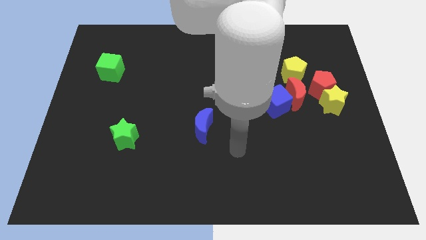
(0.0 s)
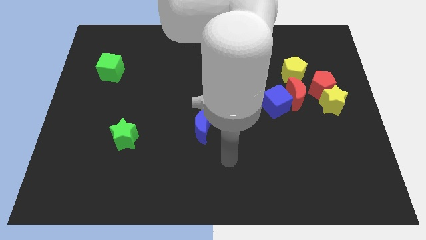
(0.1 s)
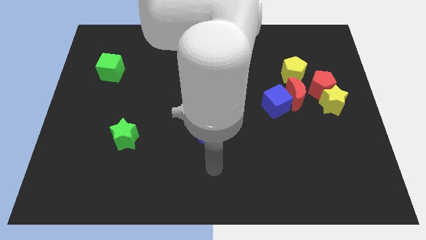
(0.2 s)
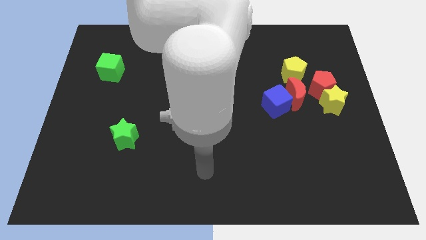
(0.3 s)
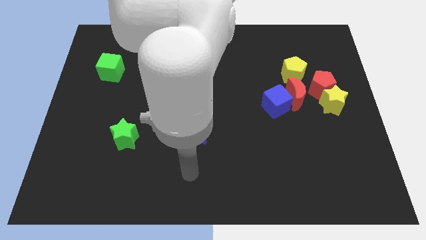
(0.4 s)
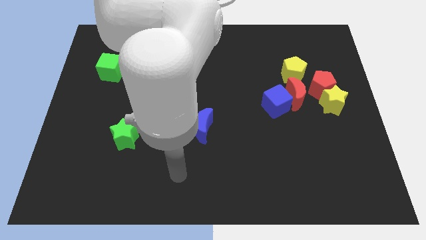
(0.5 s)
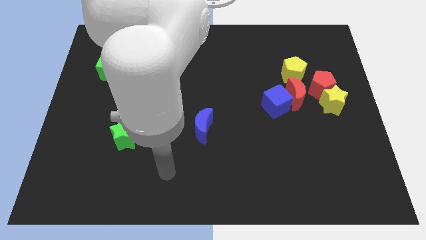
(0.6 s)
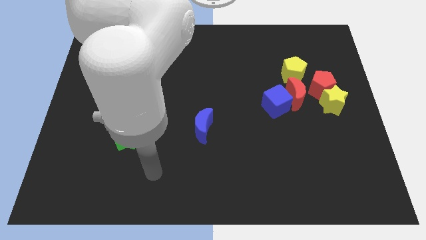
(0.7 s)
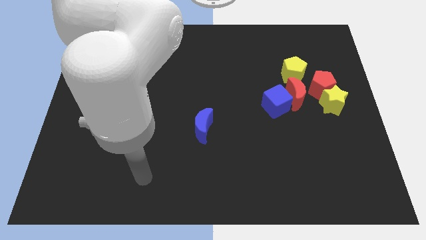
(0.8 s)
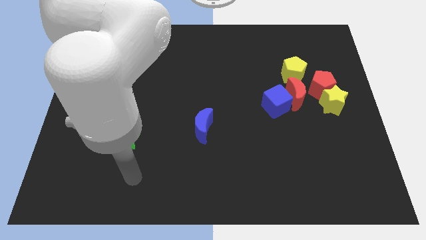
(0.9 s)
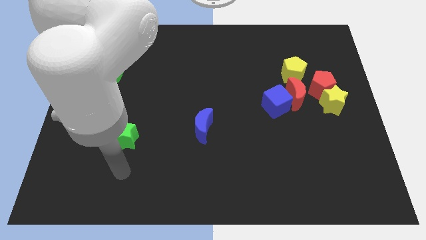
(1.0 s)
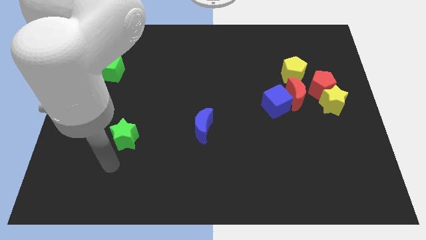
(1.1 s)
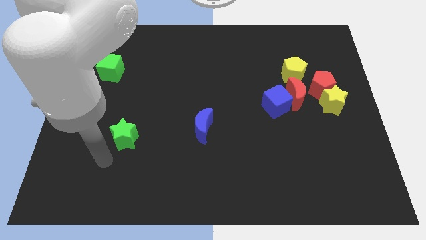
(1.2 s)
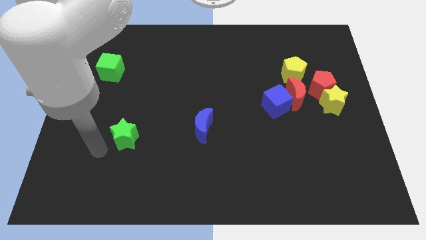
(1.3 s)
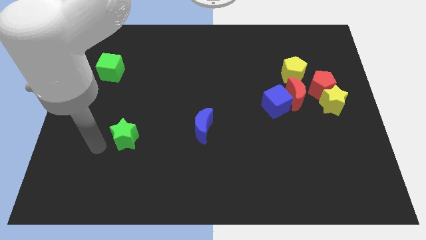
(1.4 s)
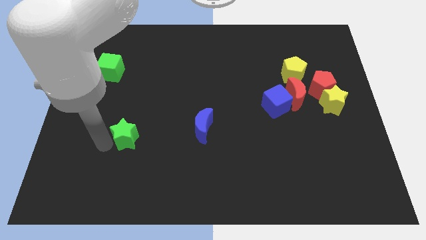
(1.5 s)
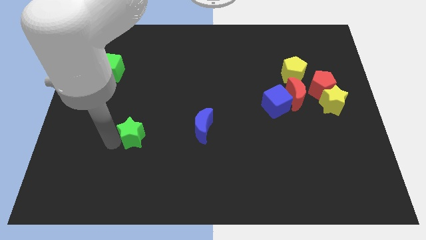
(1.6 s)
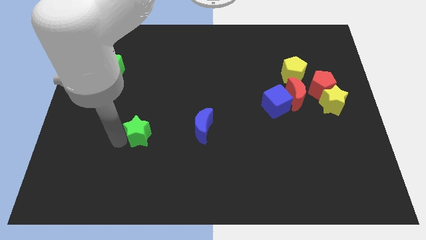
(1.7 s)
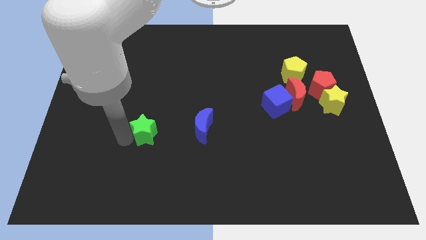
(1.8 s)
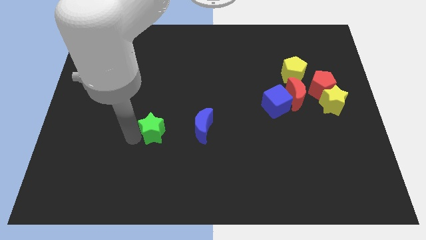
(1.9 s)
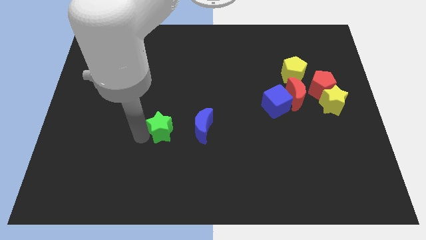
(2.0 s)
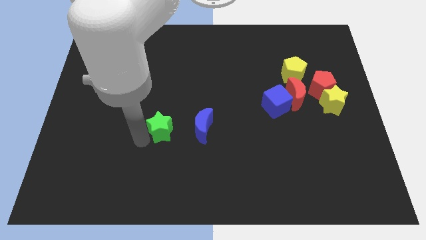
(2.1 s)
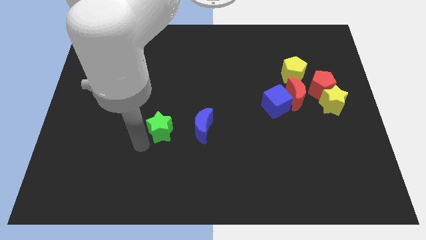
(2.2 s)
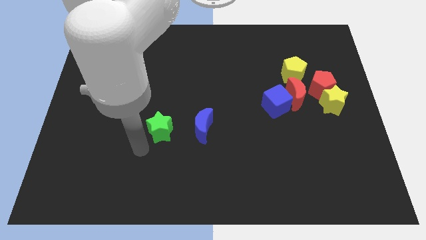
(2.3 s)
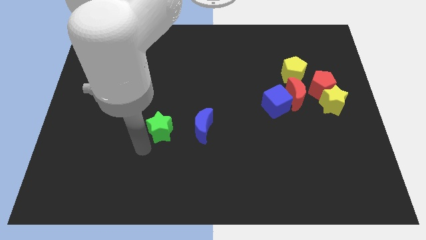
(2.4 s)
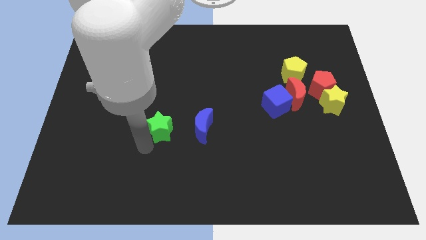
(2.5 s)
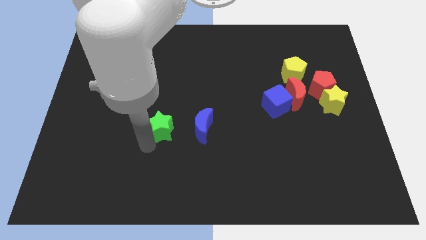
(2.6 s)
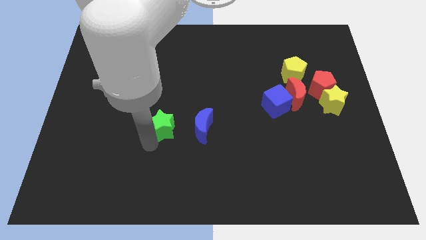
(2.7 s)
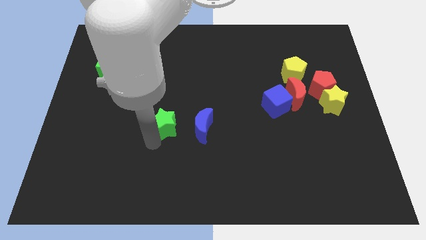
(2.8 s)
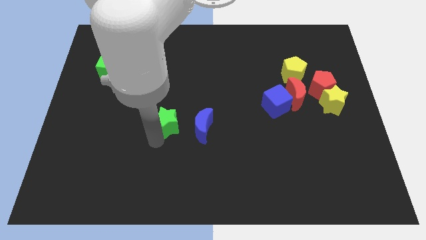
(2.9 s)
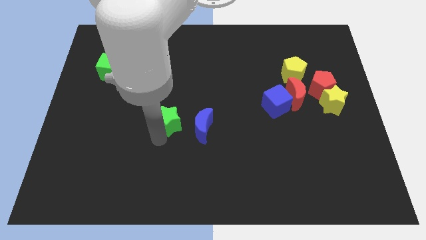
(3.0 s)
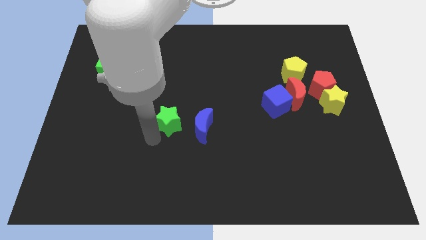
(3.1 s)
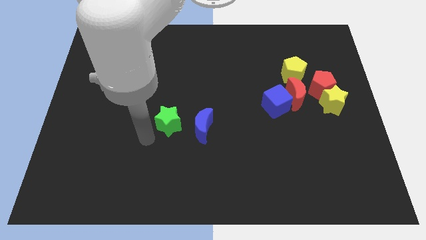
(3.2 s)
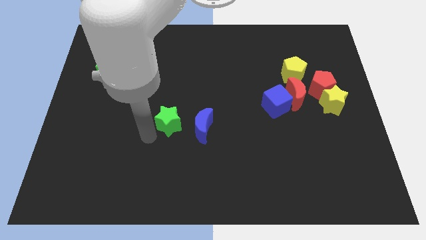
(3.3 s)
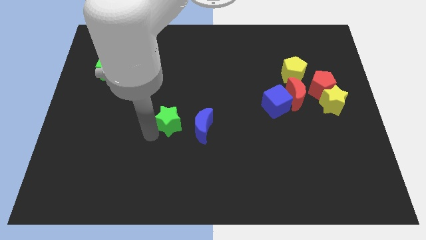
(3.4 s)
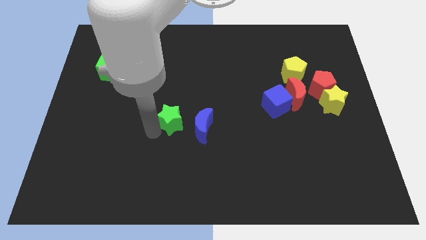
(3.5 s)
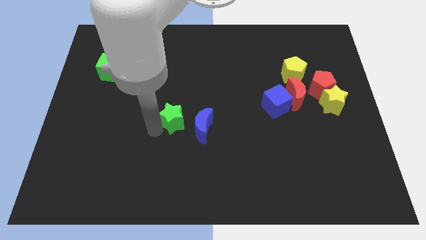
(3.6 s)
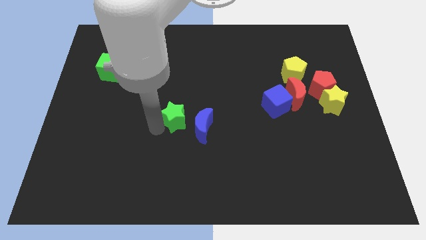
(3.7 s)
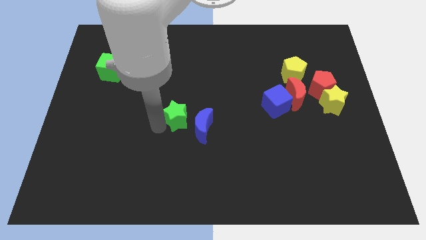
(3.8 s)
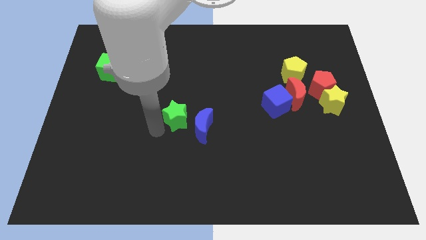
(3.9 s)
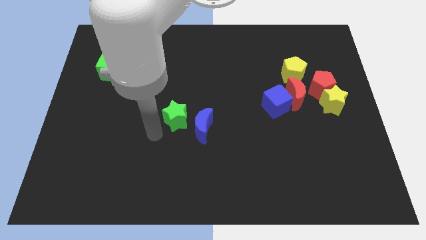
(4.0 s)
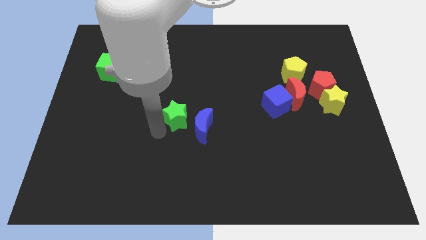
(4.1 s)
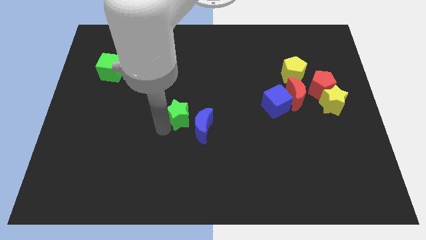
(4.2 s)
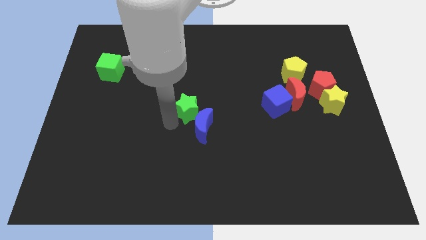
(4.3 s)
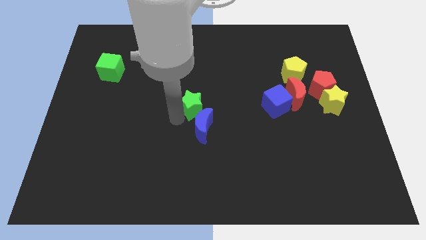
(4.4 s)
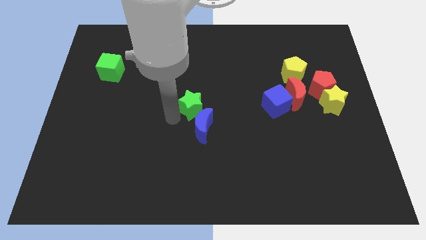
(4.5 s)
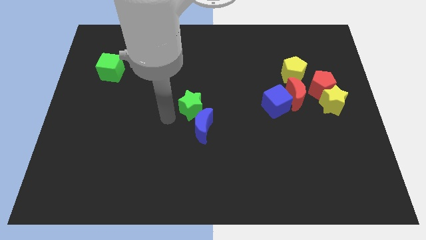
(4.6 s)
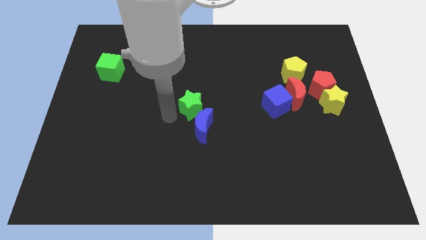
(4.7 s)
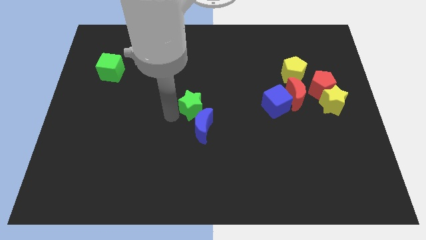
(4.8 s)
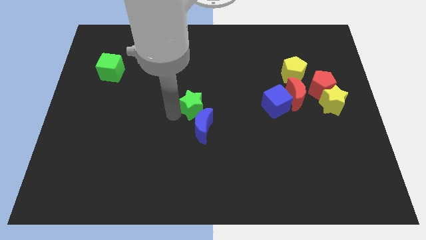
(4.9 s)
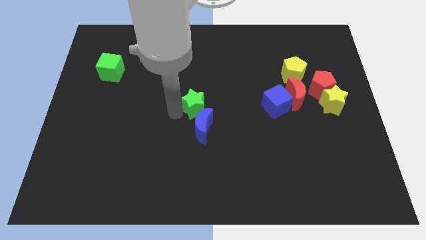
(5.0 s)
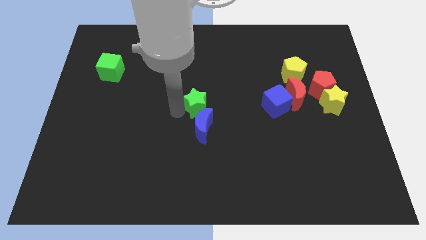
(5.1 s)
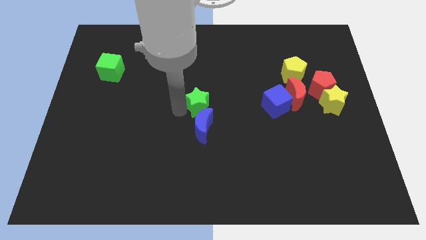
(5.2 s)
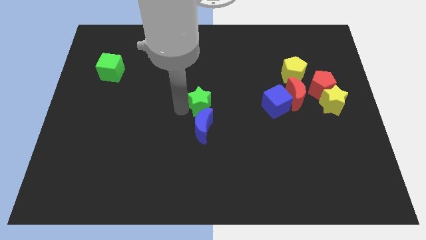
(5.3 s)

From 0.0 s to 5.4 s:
slide the green star to the top right of the blue moon

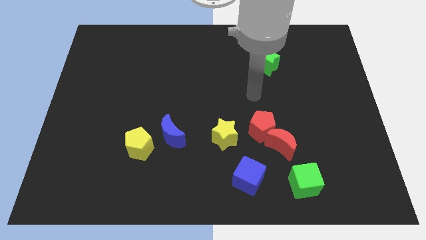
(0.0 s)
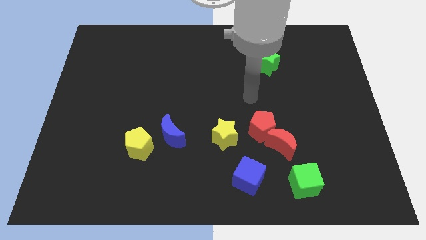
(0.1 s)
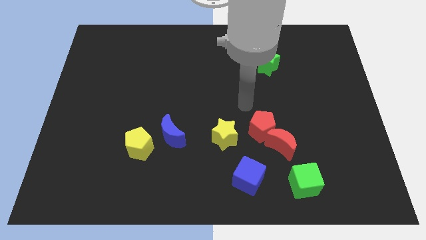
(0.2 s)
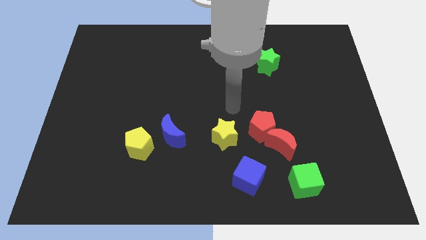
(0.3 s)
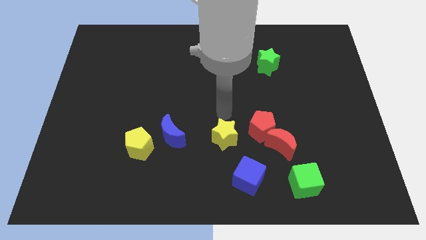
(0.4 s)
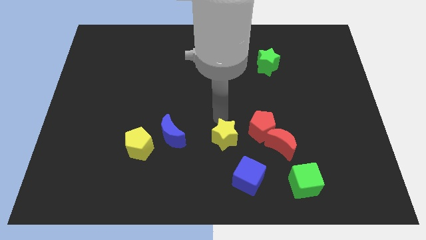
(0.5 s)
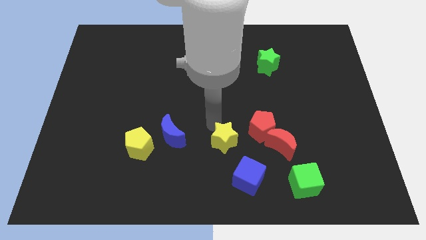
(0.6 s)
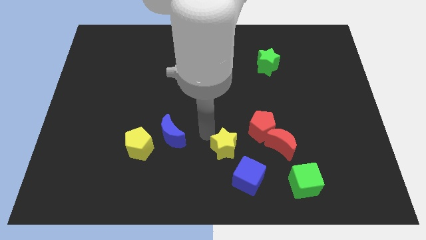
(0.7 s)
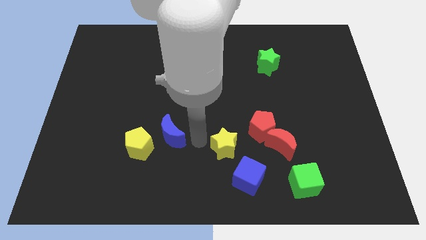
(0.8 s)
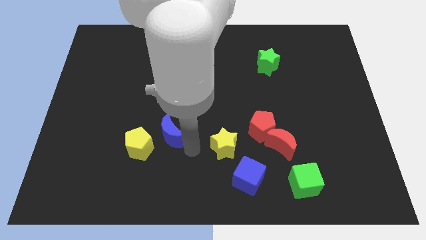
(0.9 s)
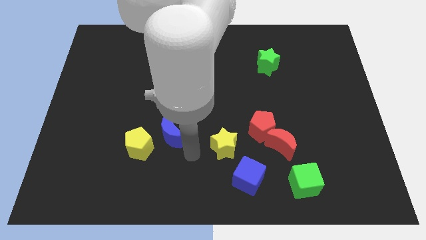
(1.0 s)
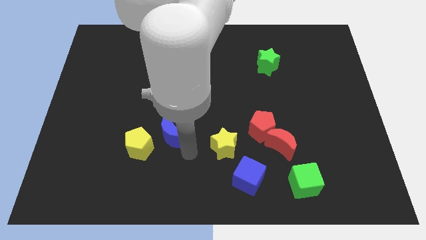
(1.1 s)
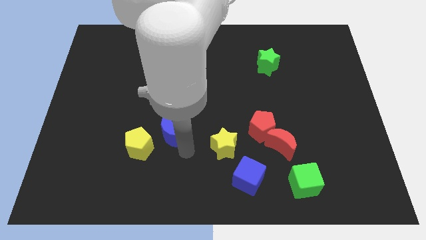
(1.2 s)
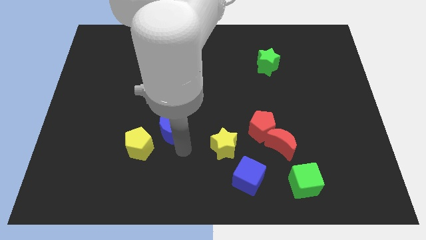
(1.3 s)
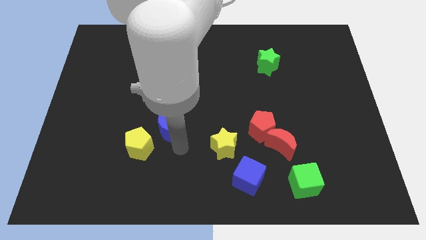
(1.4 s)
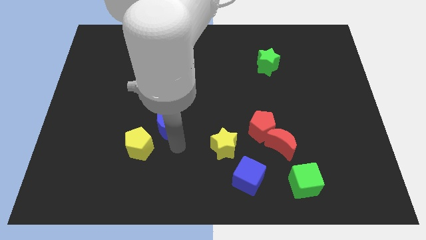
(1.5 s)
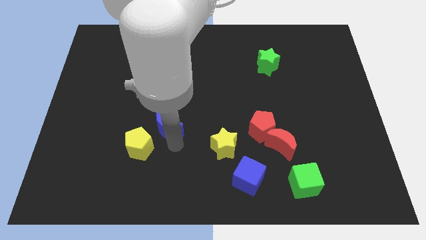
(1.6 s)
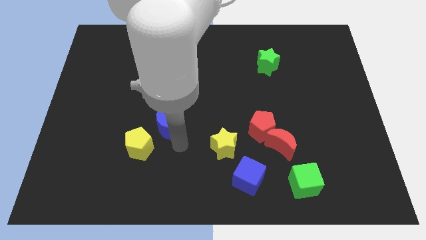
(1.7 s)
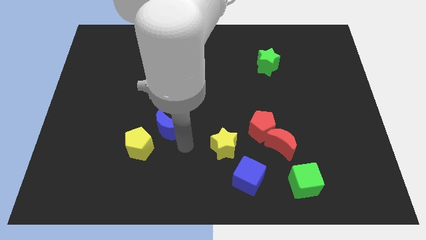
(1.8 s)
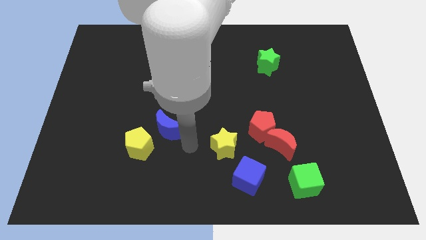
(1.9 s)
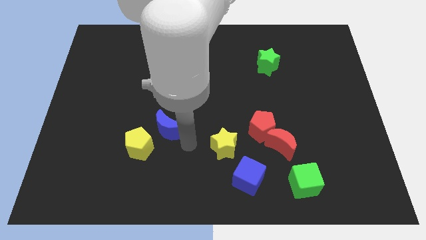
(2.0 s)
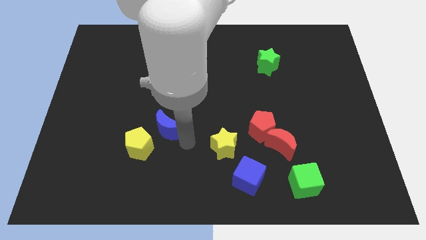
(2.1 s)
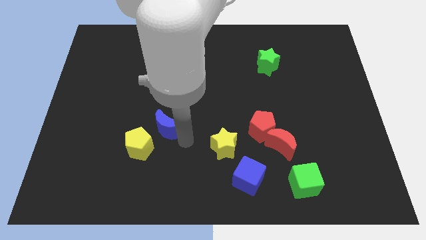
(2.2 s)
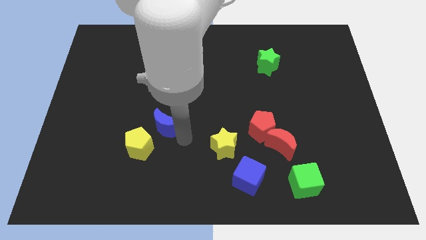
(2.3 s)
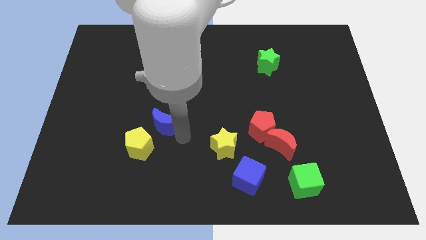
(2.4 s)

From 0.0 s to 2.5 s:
slide the blue moon to the top of the yellow pentagon
